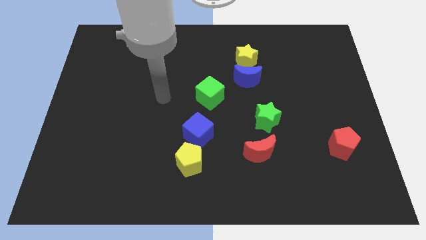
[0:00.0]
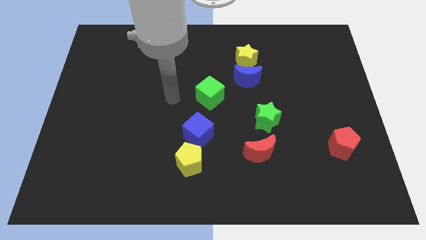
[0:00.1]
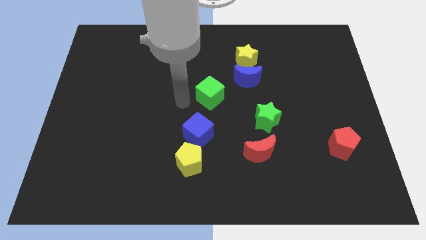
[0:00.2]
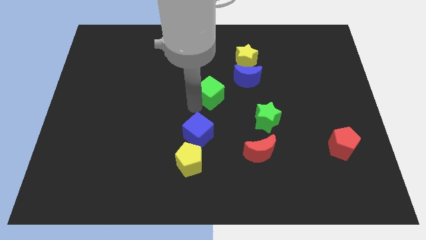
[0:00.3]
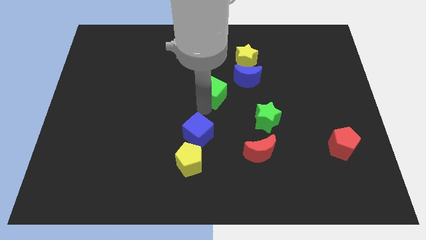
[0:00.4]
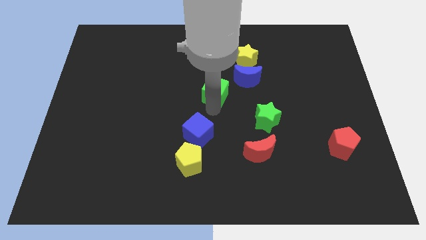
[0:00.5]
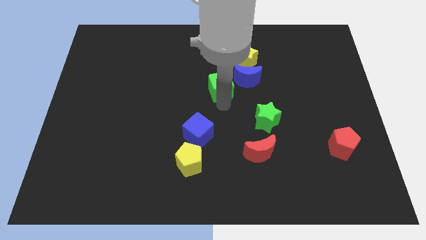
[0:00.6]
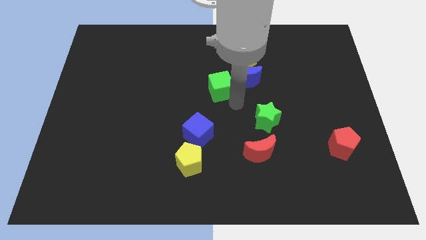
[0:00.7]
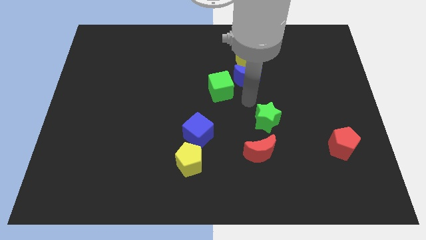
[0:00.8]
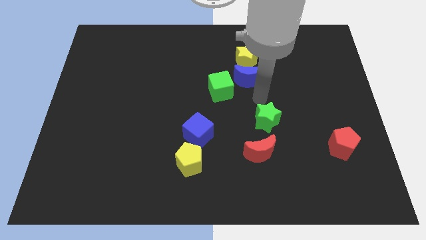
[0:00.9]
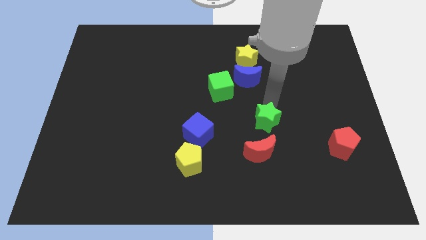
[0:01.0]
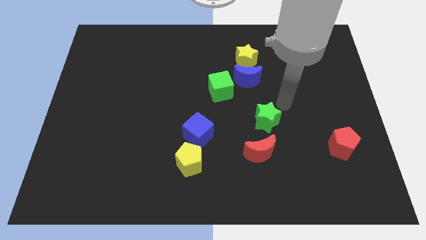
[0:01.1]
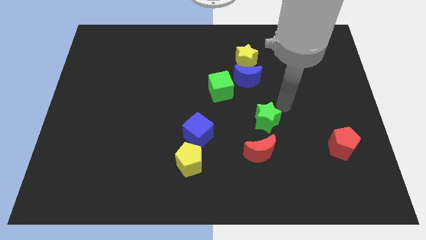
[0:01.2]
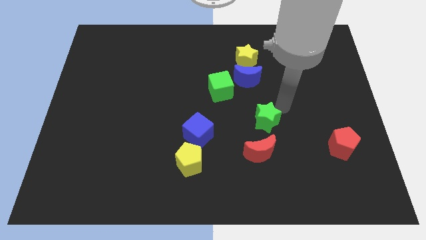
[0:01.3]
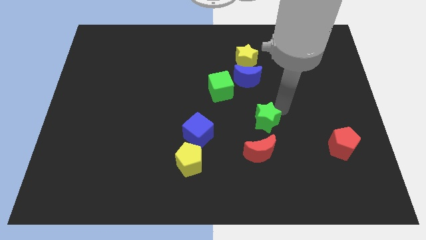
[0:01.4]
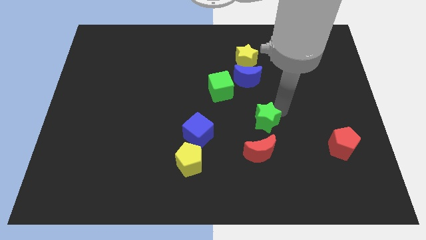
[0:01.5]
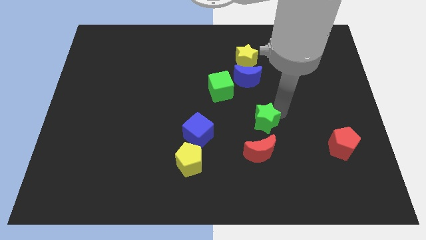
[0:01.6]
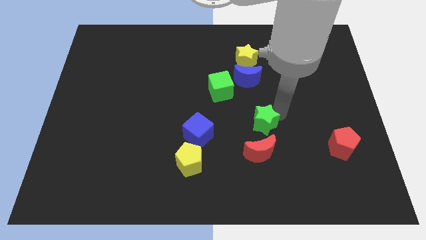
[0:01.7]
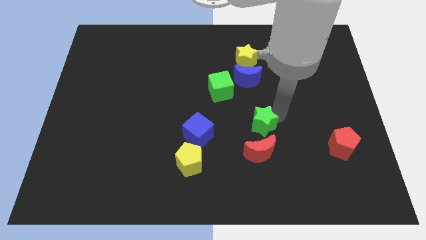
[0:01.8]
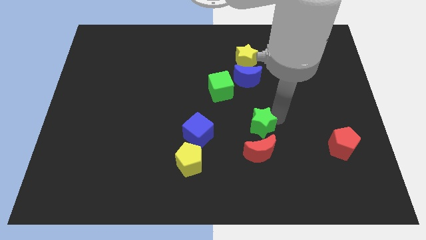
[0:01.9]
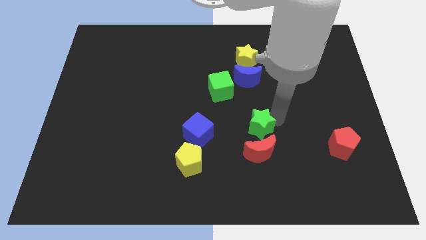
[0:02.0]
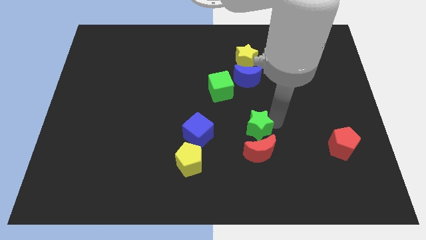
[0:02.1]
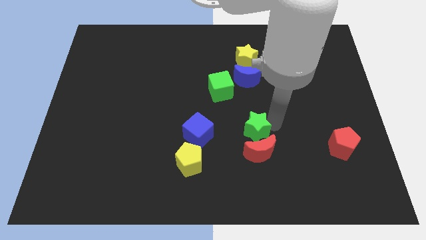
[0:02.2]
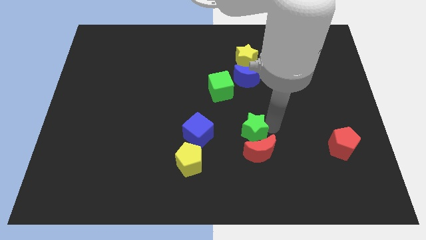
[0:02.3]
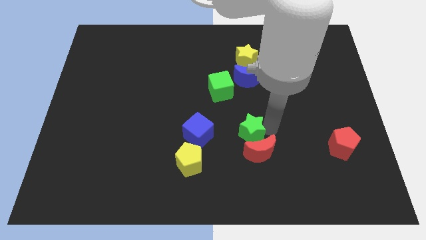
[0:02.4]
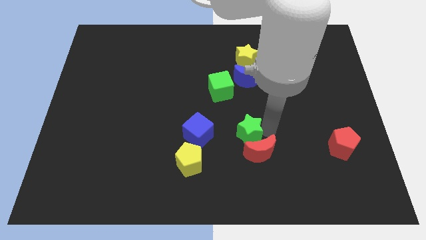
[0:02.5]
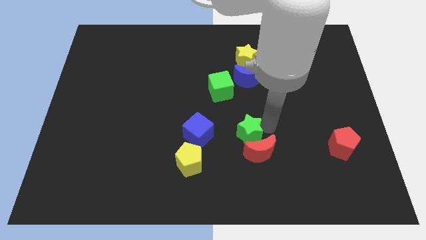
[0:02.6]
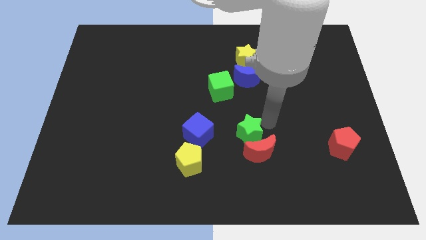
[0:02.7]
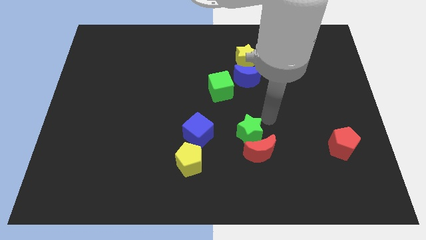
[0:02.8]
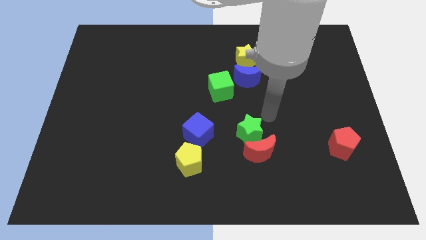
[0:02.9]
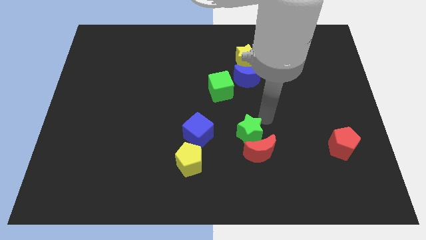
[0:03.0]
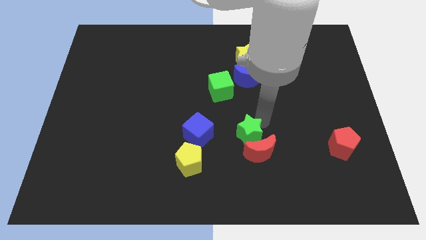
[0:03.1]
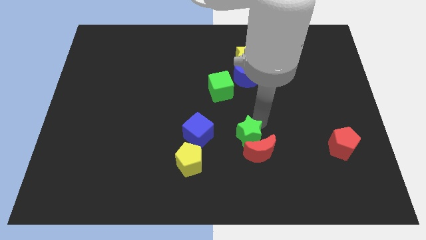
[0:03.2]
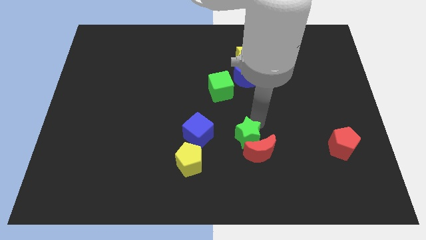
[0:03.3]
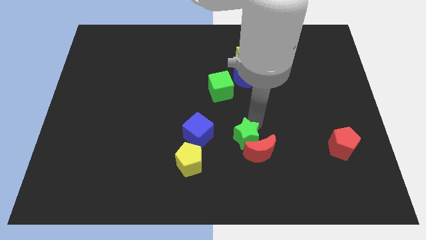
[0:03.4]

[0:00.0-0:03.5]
slightly move the green star diagonally down and to the left

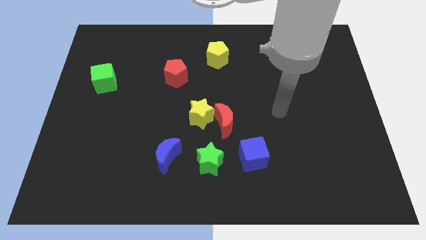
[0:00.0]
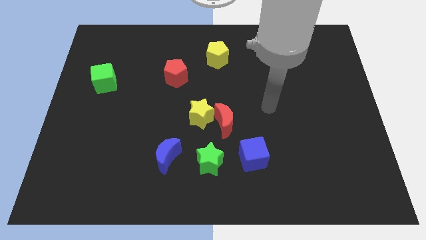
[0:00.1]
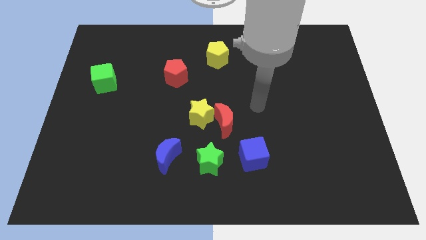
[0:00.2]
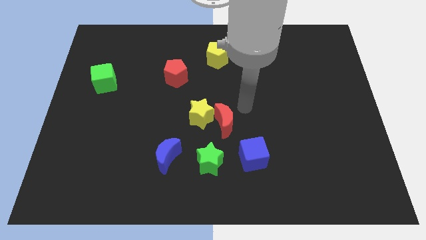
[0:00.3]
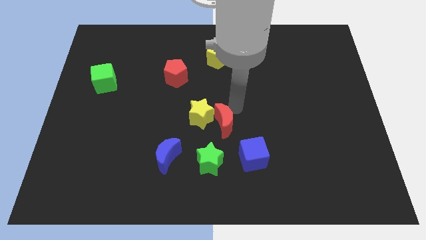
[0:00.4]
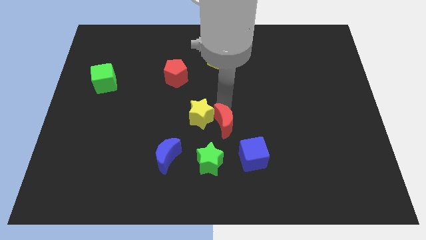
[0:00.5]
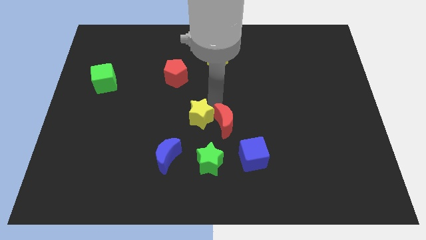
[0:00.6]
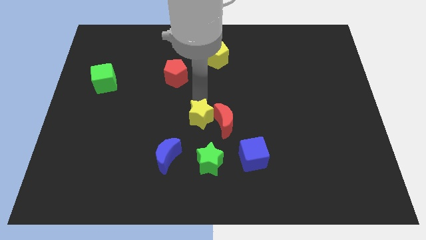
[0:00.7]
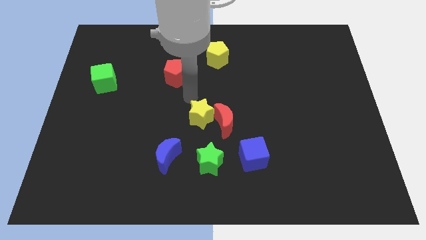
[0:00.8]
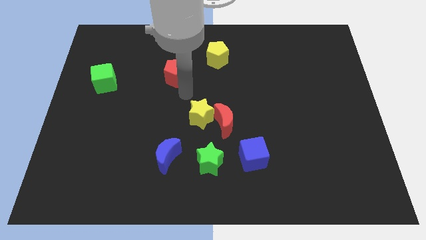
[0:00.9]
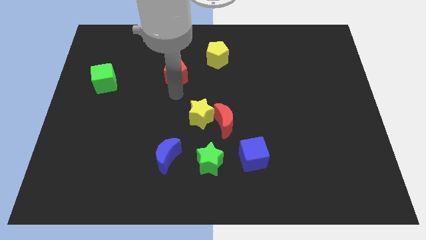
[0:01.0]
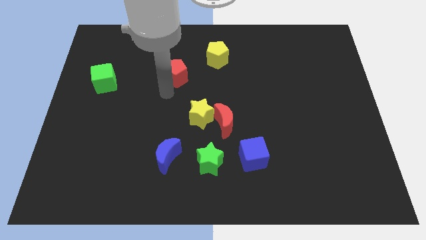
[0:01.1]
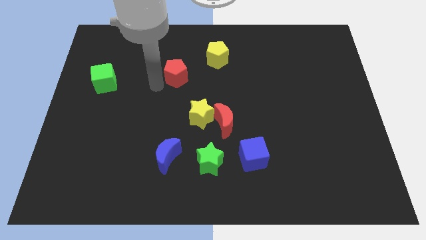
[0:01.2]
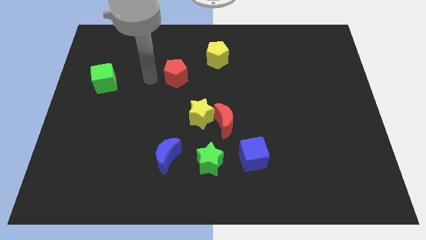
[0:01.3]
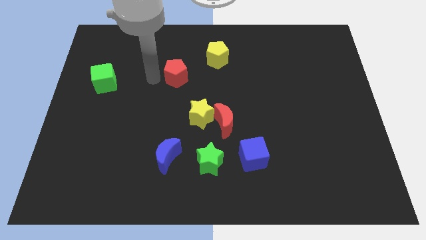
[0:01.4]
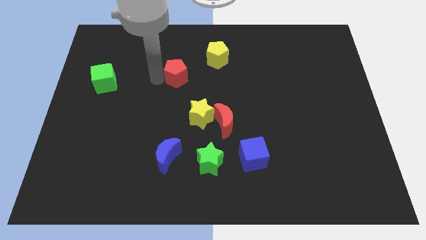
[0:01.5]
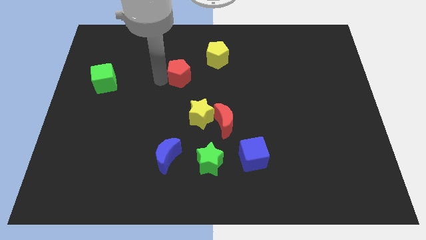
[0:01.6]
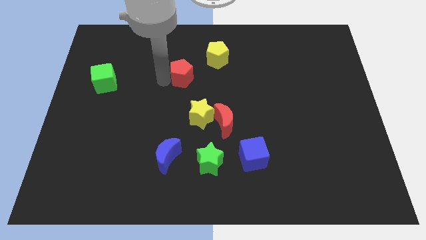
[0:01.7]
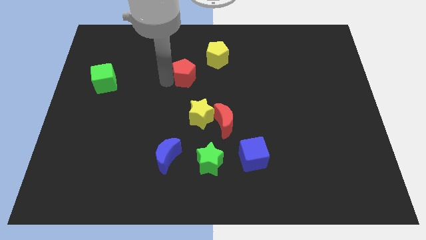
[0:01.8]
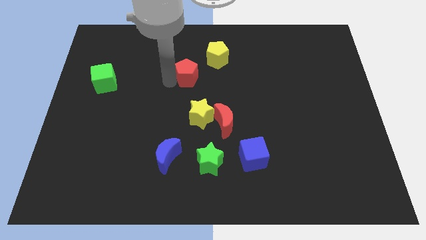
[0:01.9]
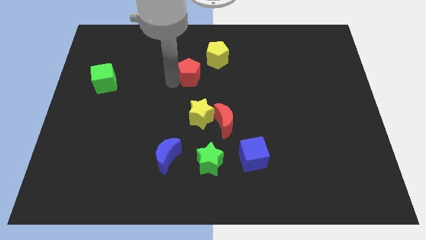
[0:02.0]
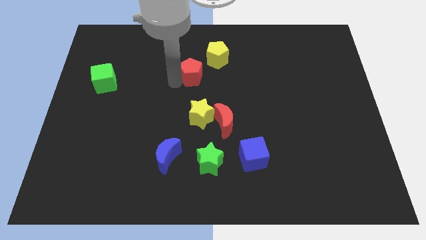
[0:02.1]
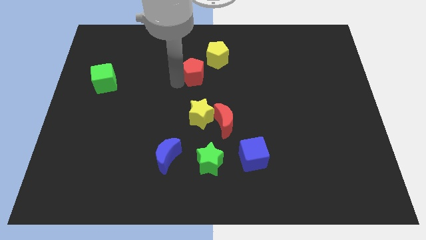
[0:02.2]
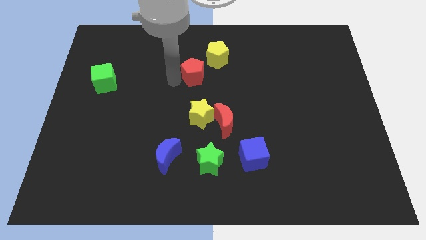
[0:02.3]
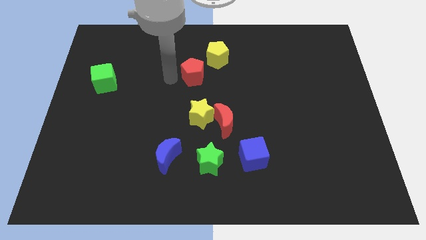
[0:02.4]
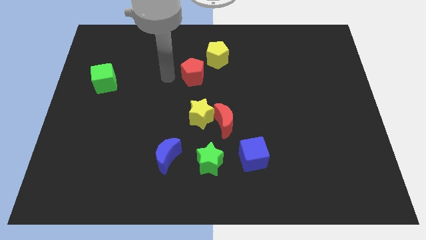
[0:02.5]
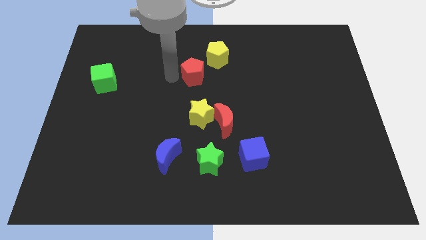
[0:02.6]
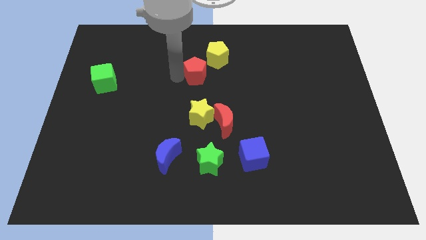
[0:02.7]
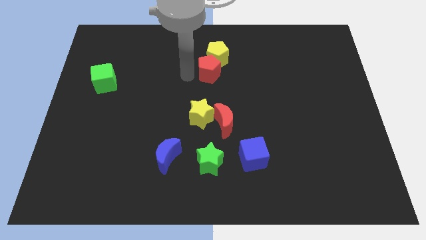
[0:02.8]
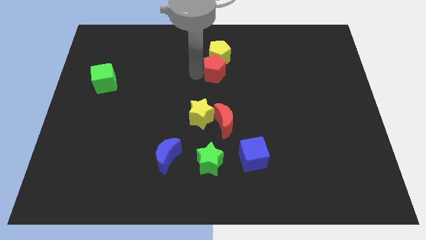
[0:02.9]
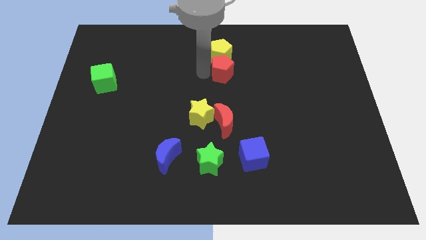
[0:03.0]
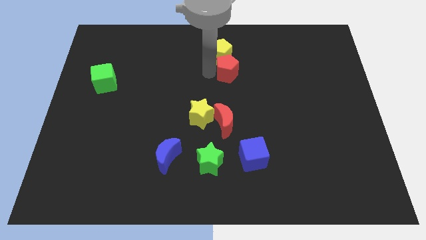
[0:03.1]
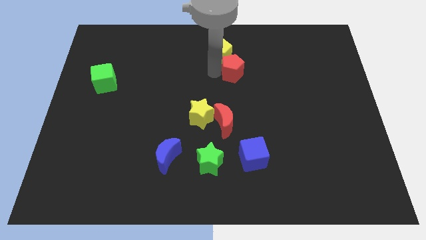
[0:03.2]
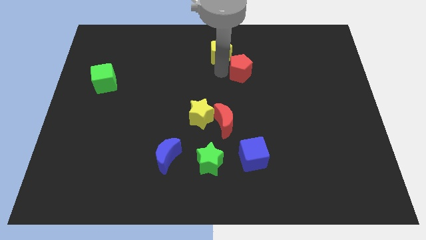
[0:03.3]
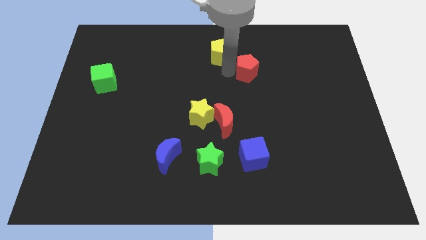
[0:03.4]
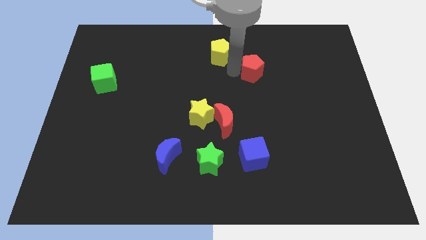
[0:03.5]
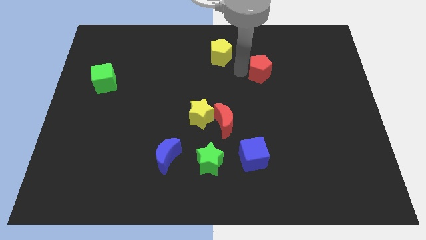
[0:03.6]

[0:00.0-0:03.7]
slide the red pentagon right

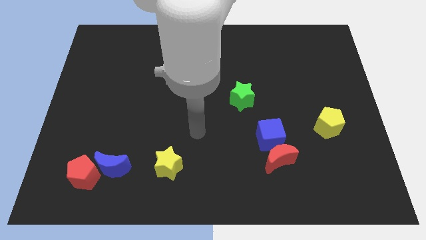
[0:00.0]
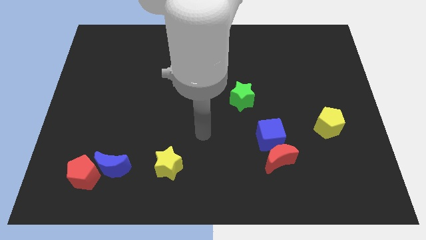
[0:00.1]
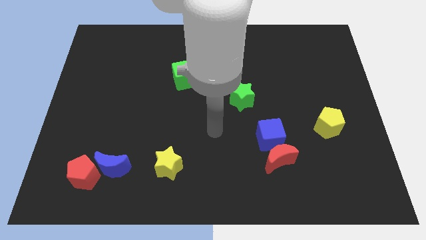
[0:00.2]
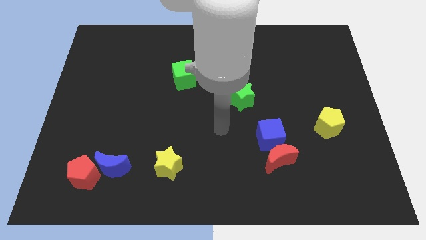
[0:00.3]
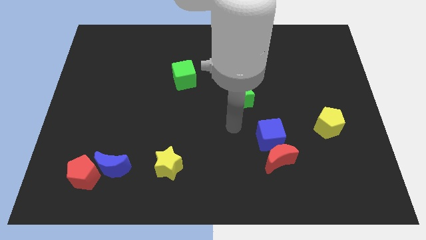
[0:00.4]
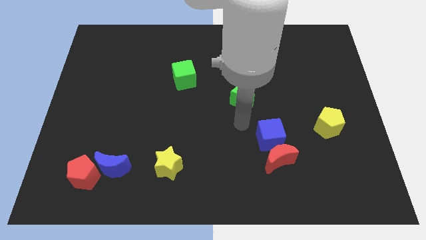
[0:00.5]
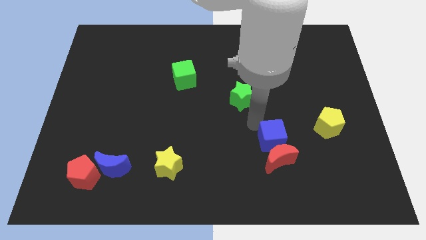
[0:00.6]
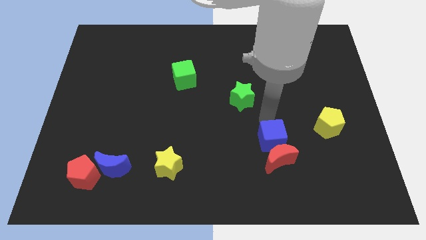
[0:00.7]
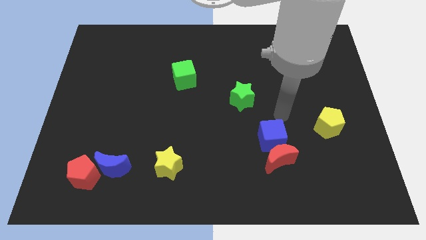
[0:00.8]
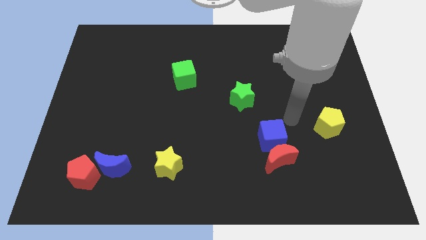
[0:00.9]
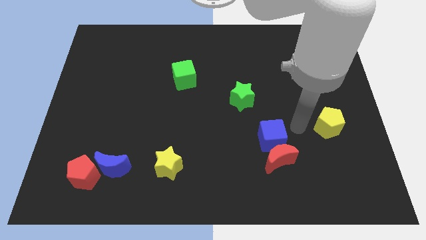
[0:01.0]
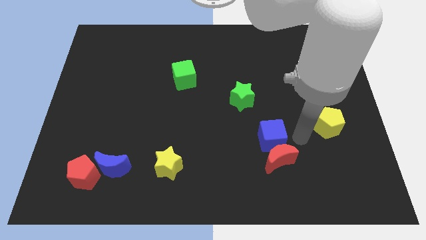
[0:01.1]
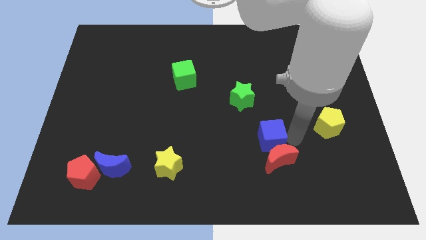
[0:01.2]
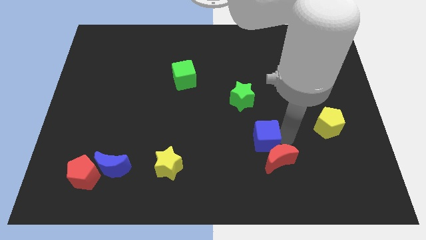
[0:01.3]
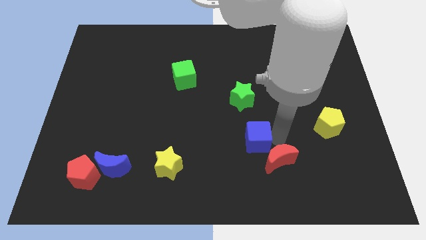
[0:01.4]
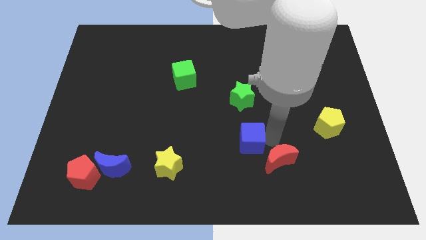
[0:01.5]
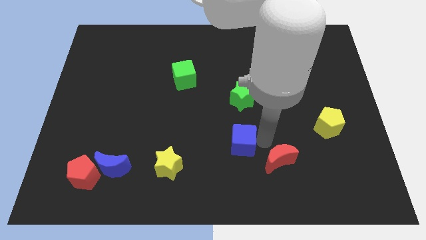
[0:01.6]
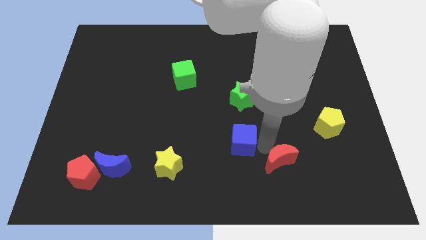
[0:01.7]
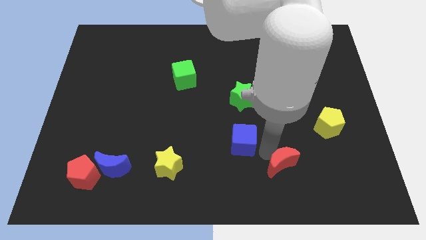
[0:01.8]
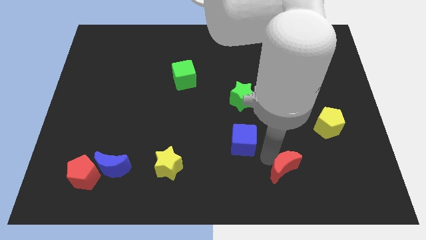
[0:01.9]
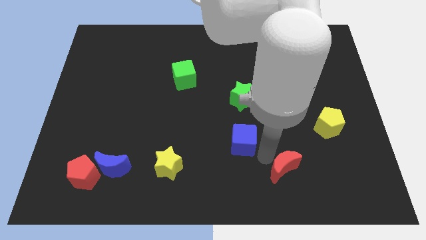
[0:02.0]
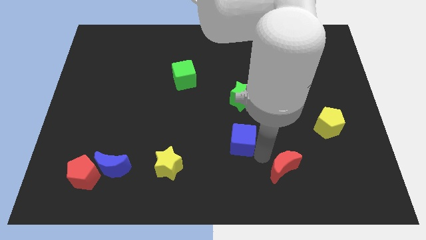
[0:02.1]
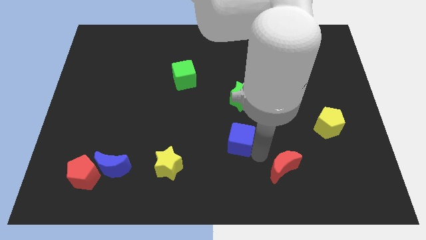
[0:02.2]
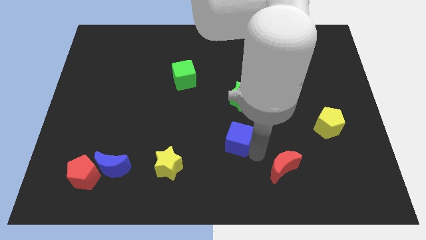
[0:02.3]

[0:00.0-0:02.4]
slightly move the blue cube to the left
